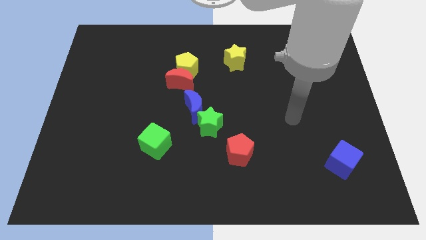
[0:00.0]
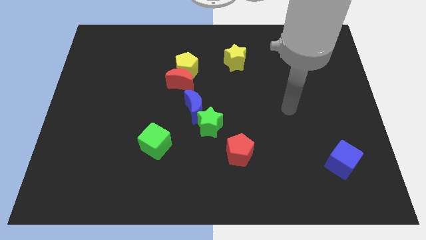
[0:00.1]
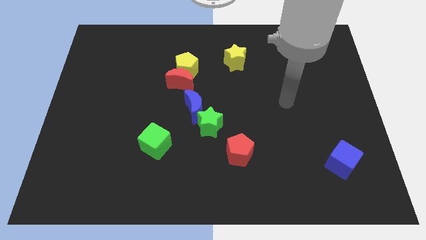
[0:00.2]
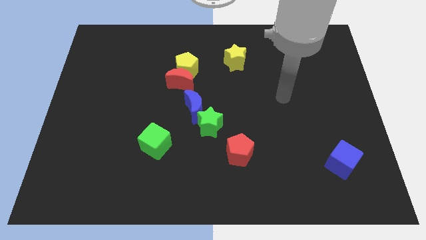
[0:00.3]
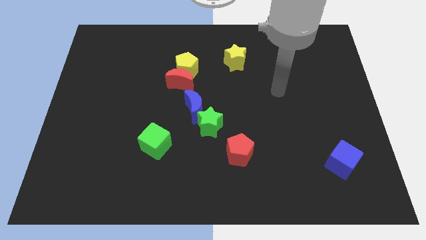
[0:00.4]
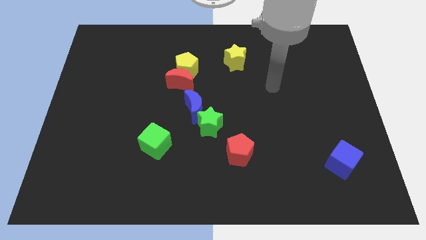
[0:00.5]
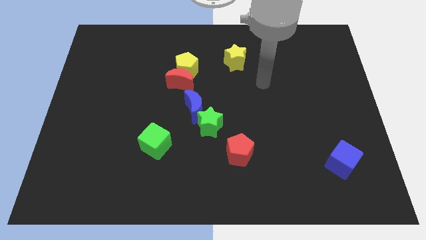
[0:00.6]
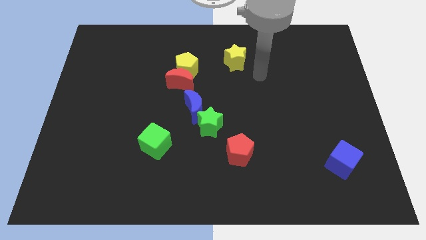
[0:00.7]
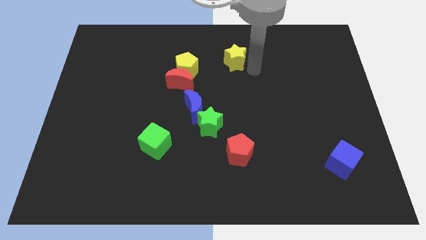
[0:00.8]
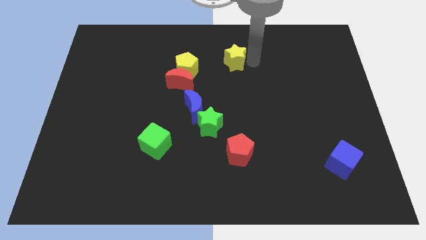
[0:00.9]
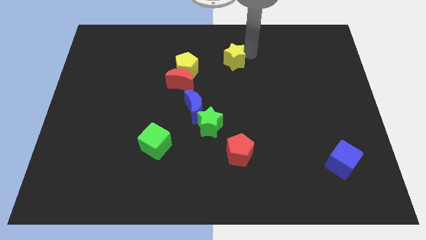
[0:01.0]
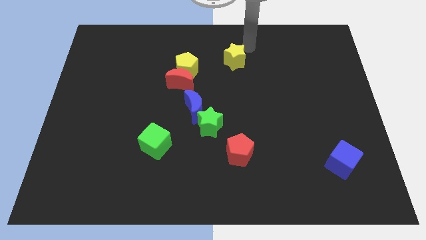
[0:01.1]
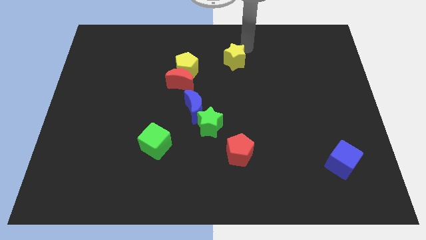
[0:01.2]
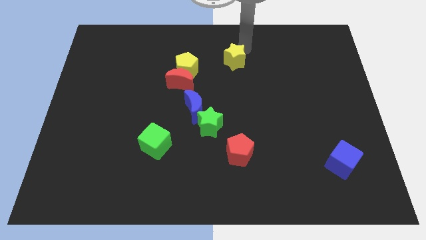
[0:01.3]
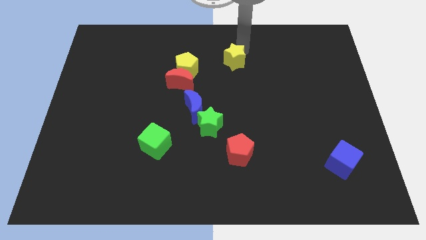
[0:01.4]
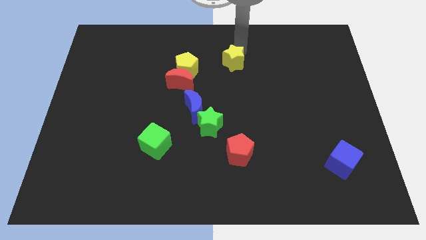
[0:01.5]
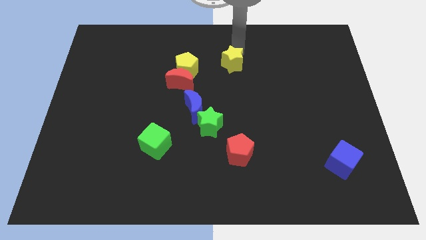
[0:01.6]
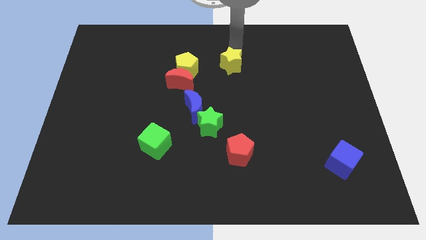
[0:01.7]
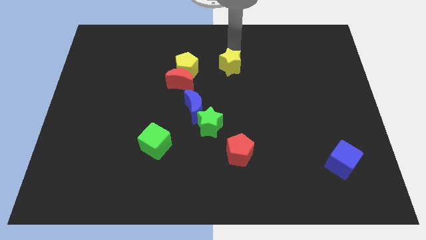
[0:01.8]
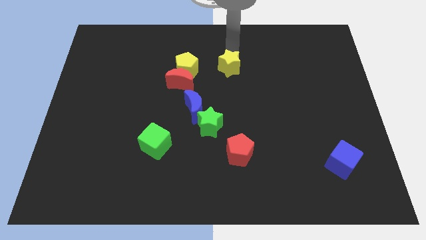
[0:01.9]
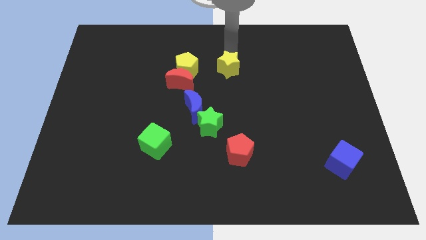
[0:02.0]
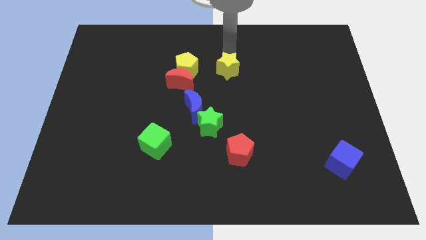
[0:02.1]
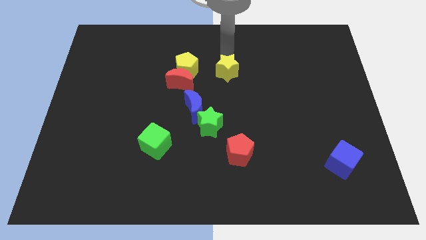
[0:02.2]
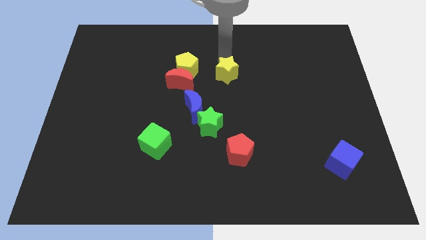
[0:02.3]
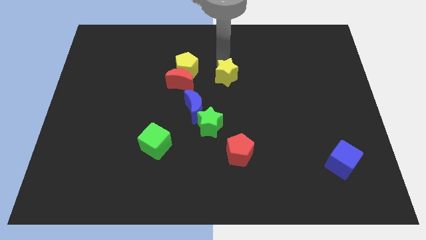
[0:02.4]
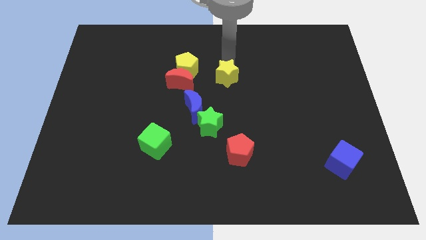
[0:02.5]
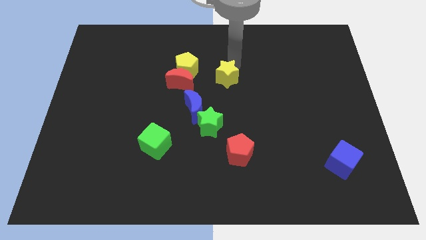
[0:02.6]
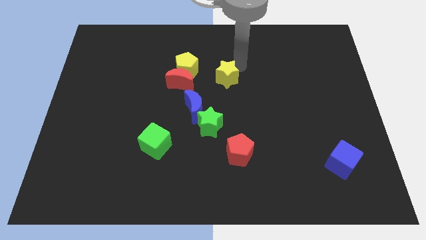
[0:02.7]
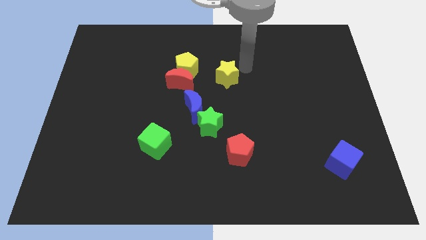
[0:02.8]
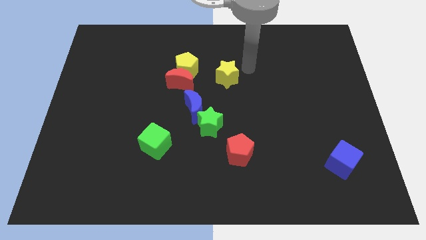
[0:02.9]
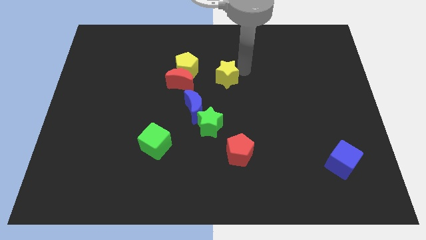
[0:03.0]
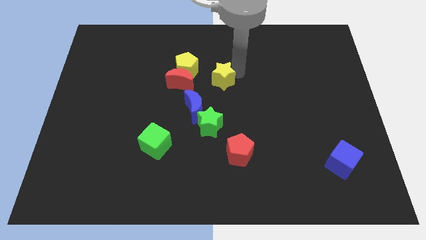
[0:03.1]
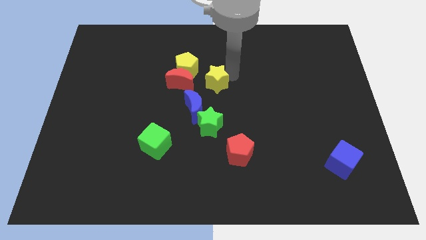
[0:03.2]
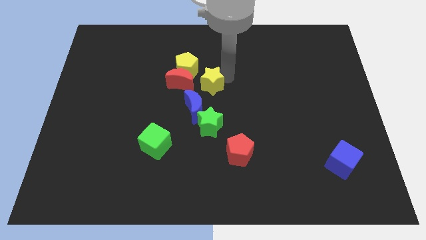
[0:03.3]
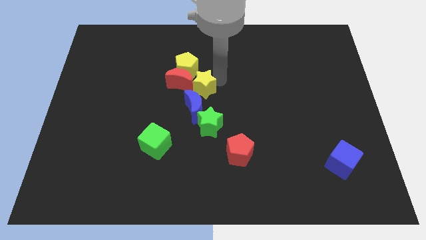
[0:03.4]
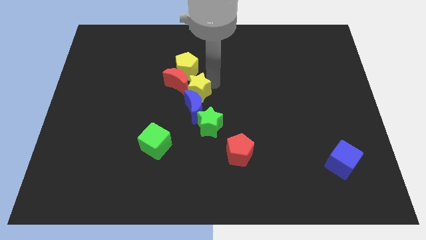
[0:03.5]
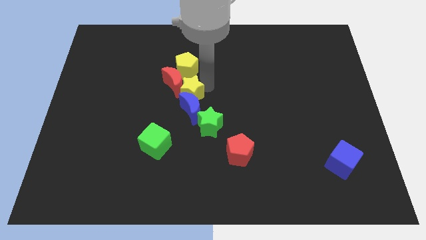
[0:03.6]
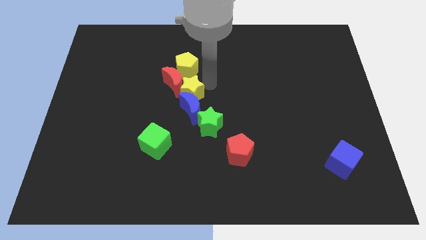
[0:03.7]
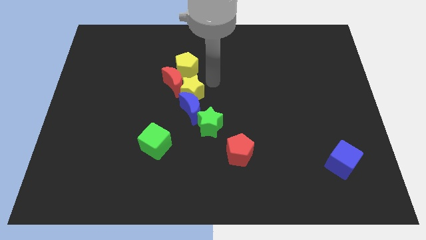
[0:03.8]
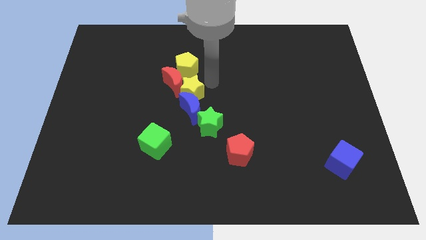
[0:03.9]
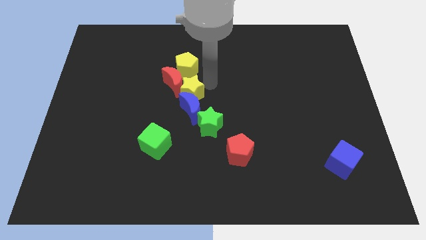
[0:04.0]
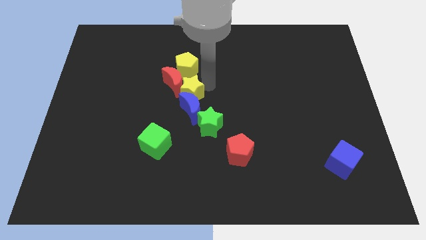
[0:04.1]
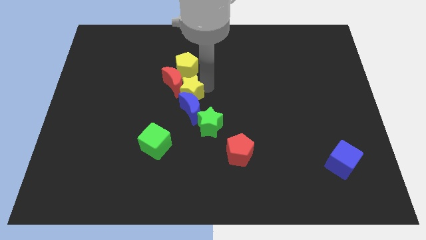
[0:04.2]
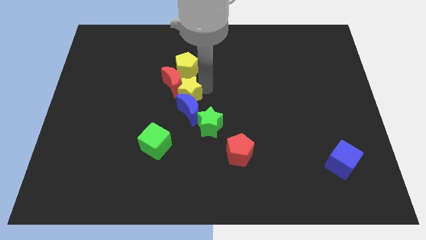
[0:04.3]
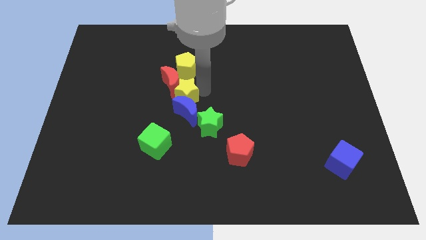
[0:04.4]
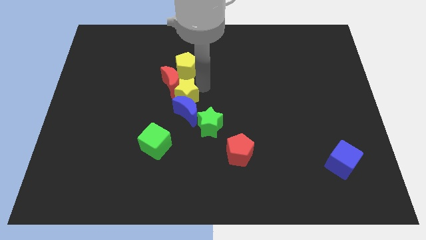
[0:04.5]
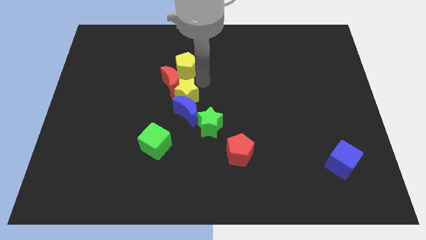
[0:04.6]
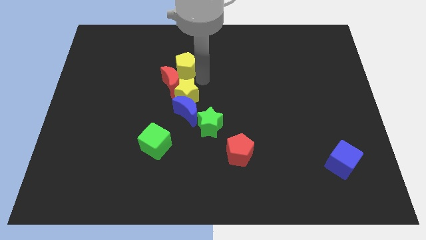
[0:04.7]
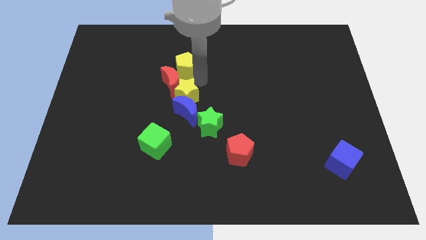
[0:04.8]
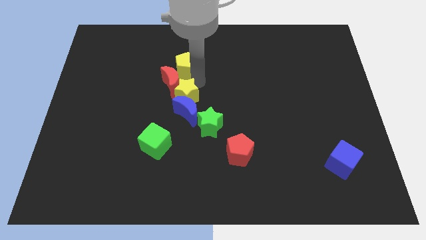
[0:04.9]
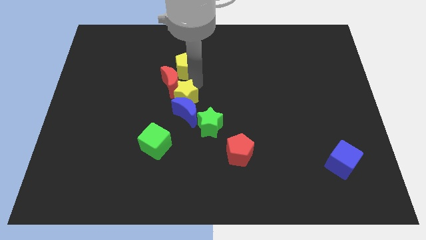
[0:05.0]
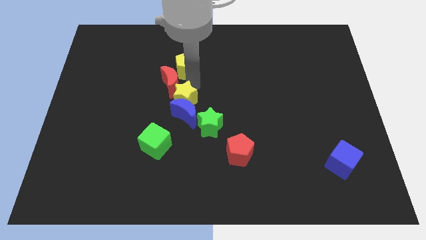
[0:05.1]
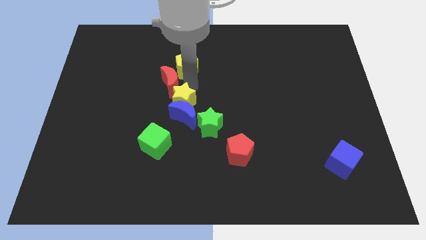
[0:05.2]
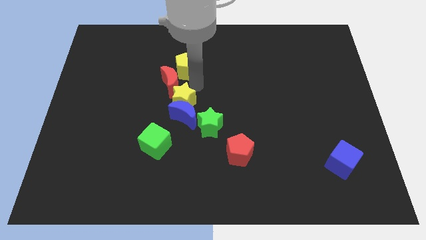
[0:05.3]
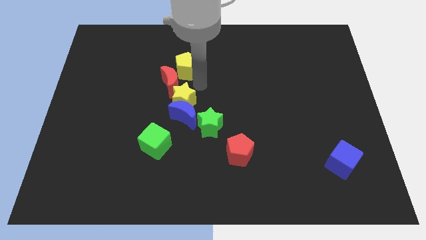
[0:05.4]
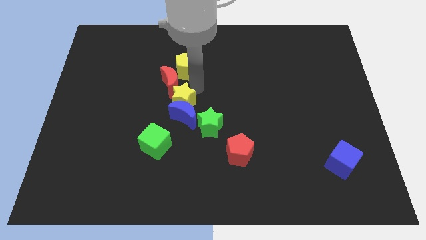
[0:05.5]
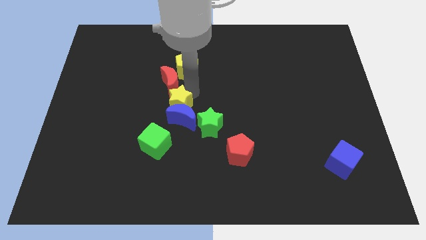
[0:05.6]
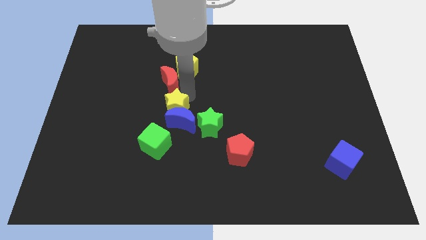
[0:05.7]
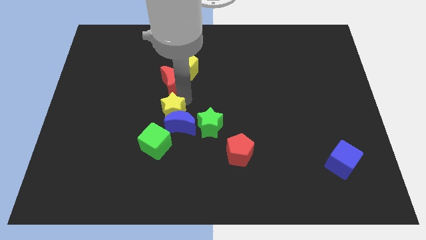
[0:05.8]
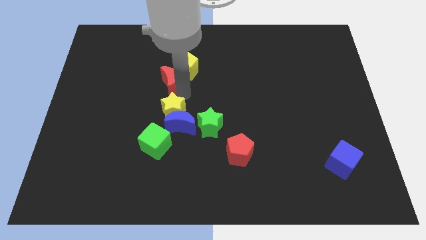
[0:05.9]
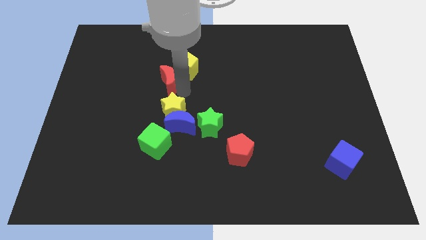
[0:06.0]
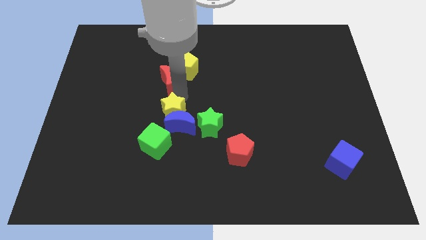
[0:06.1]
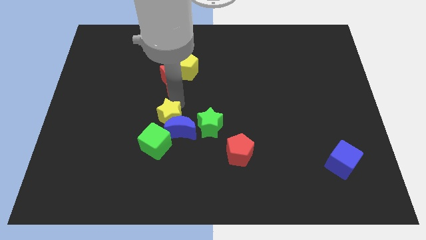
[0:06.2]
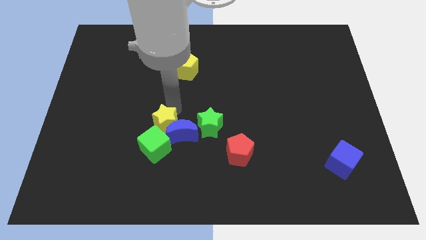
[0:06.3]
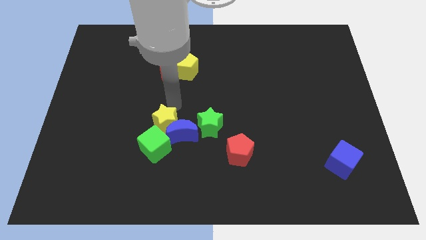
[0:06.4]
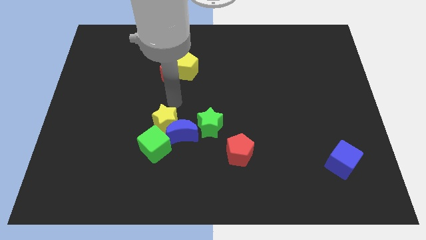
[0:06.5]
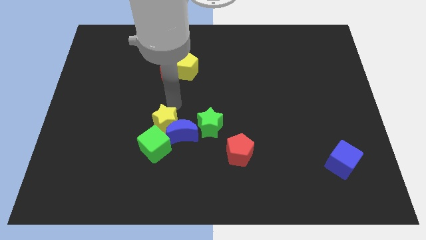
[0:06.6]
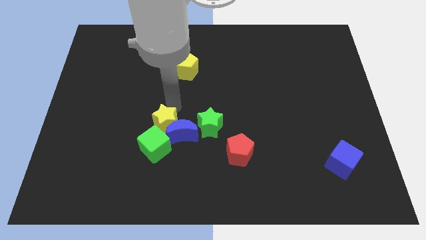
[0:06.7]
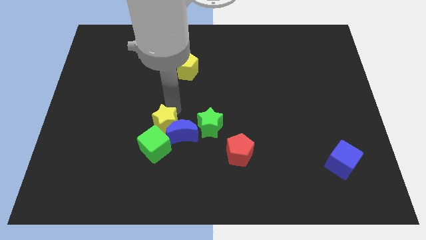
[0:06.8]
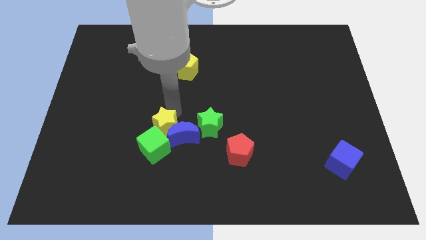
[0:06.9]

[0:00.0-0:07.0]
put the yellow star to the green cube
